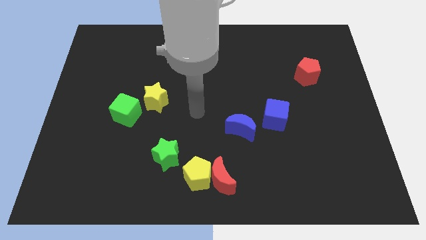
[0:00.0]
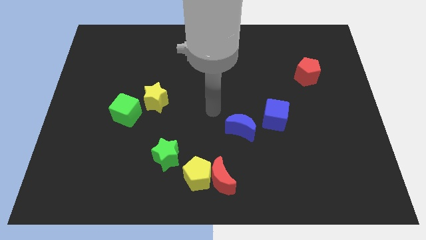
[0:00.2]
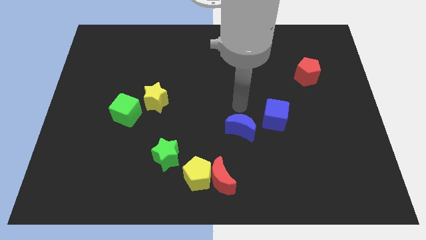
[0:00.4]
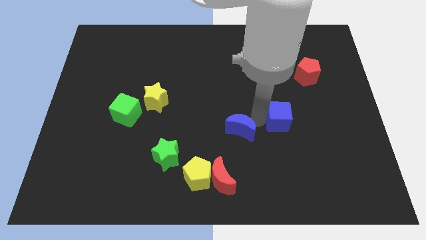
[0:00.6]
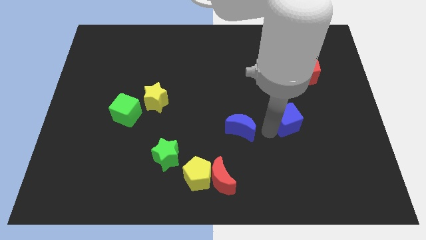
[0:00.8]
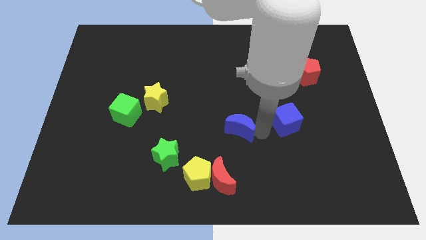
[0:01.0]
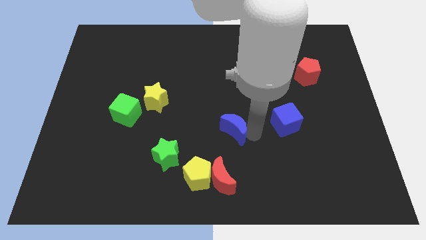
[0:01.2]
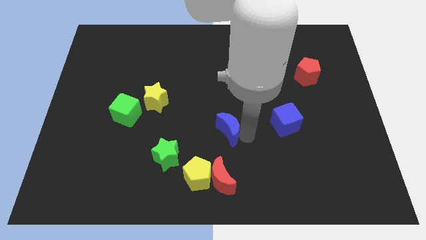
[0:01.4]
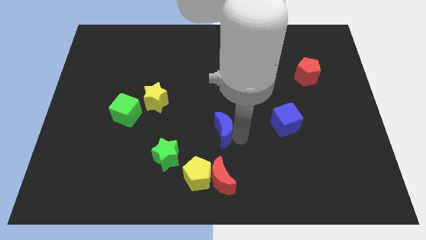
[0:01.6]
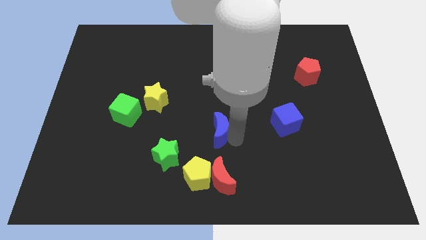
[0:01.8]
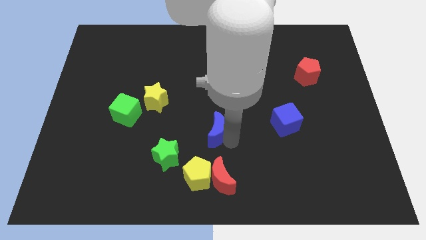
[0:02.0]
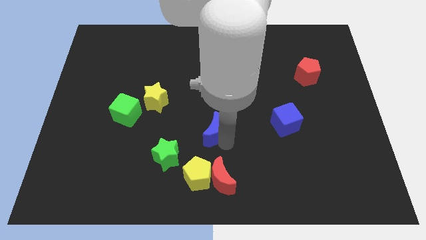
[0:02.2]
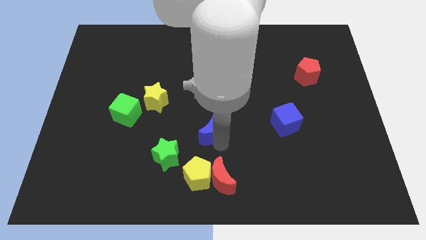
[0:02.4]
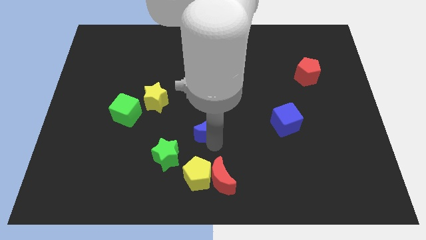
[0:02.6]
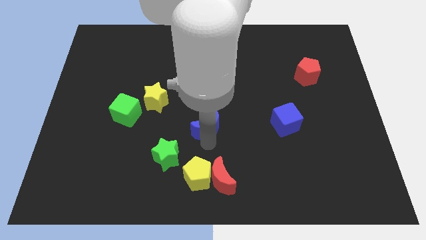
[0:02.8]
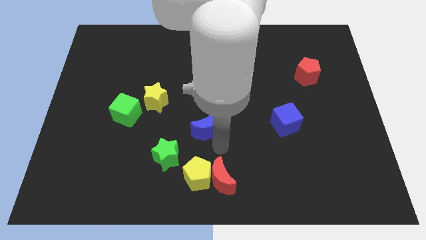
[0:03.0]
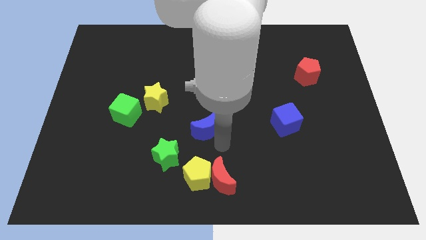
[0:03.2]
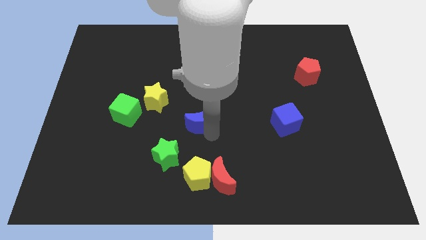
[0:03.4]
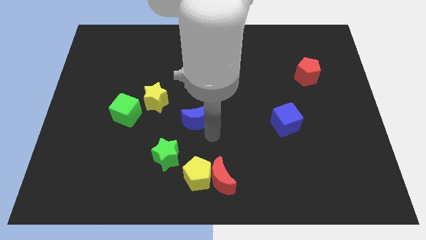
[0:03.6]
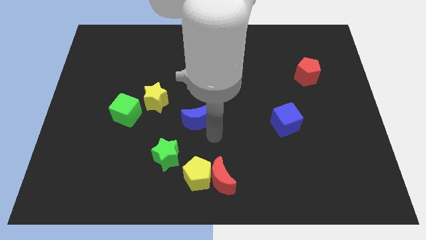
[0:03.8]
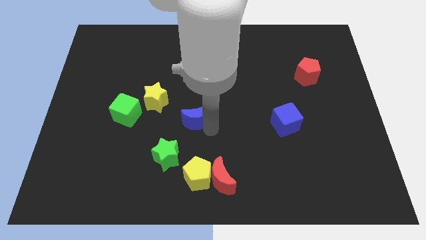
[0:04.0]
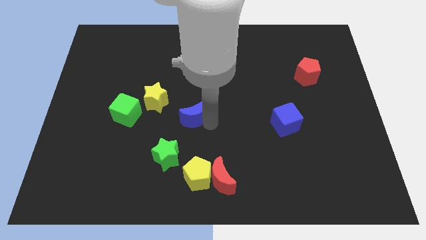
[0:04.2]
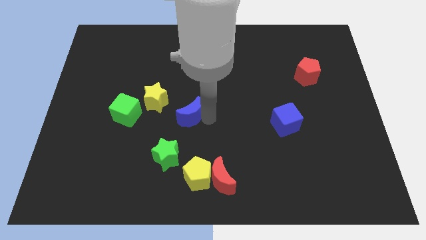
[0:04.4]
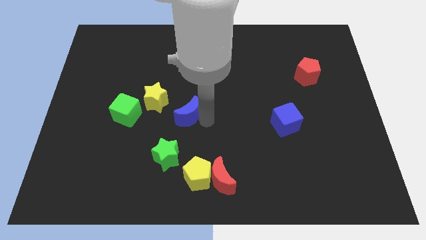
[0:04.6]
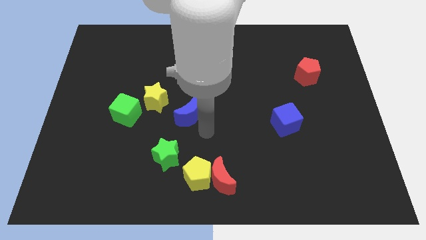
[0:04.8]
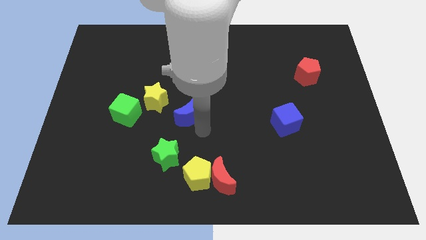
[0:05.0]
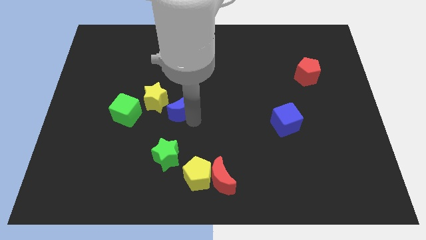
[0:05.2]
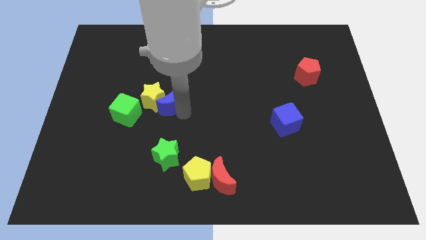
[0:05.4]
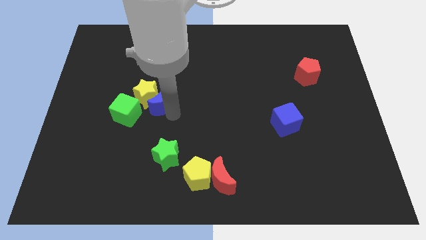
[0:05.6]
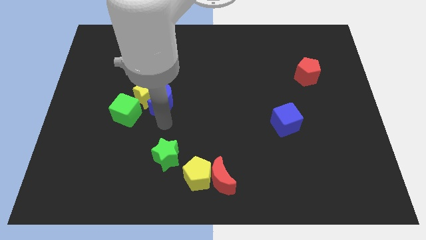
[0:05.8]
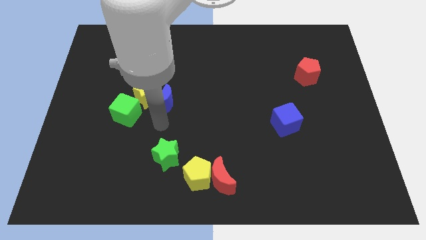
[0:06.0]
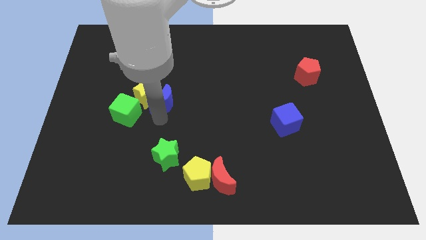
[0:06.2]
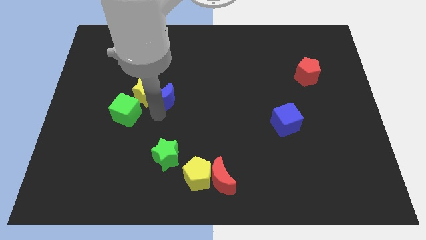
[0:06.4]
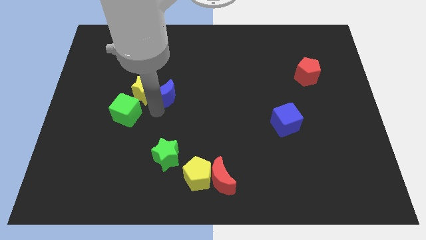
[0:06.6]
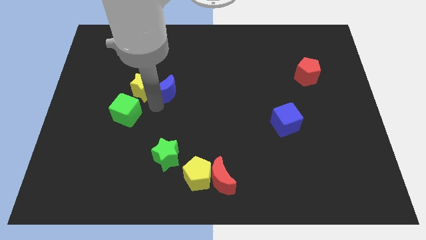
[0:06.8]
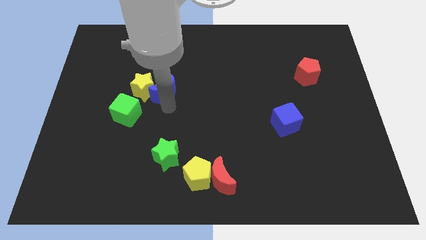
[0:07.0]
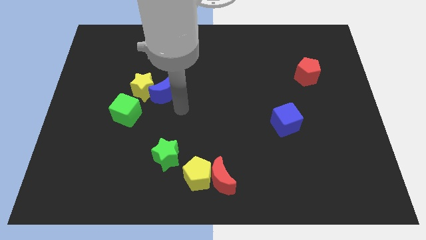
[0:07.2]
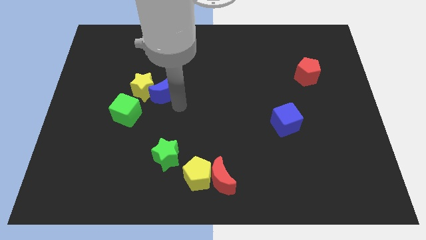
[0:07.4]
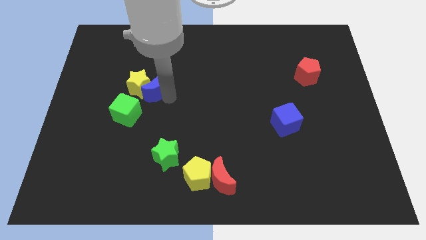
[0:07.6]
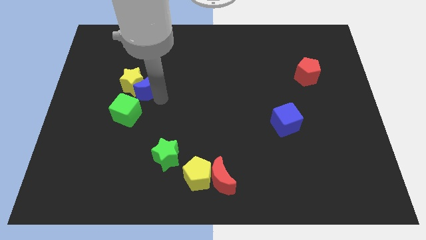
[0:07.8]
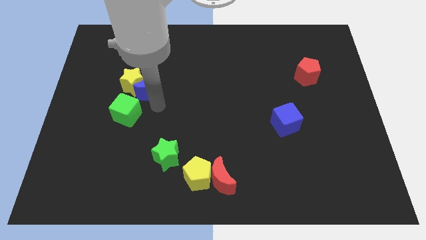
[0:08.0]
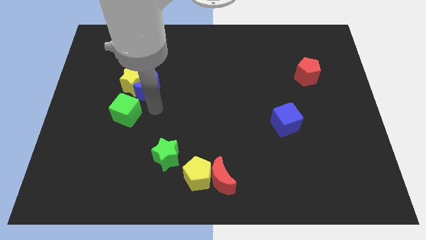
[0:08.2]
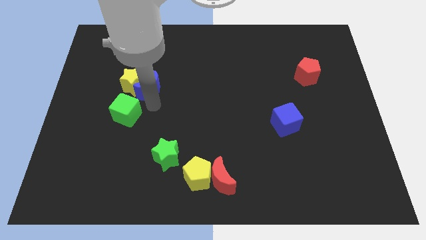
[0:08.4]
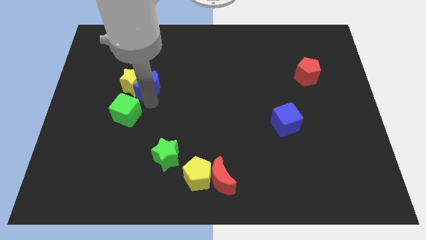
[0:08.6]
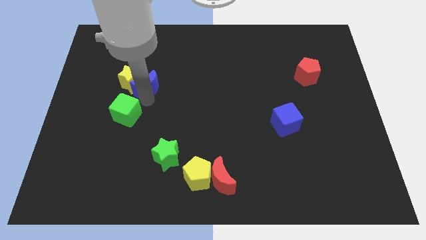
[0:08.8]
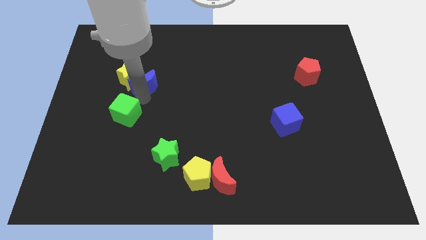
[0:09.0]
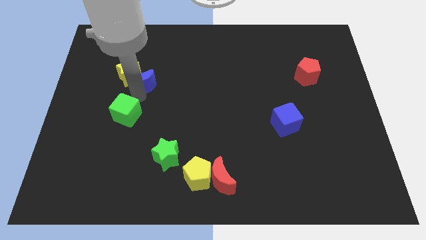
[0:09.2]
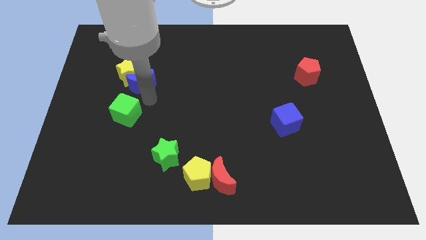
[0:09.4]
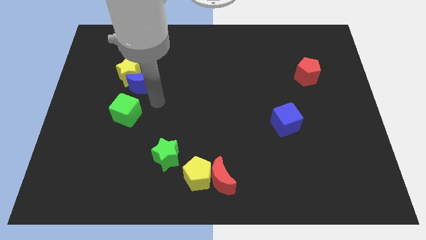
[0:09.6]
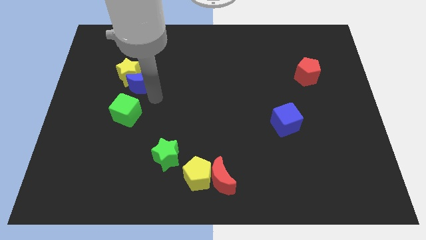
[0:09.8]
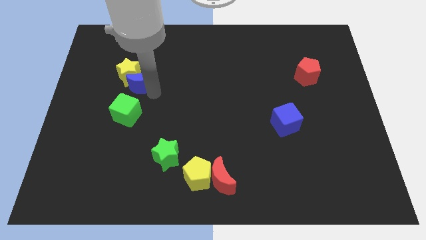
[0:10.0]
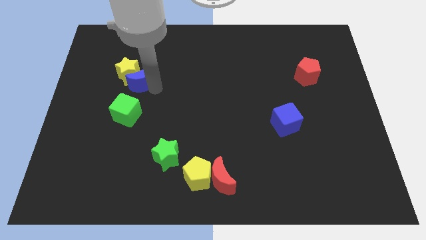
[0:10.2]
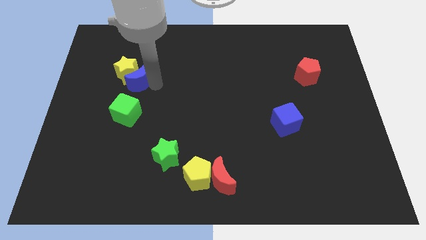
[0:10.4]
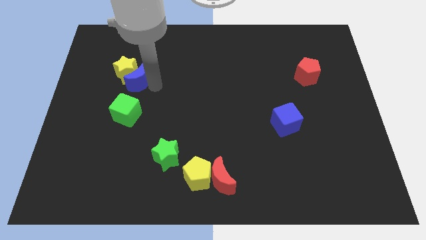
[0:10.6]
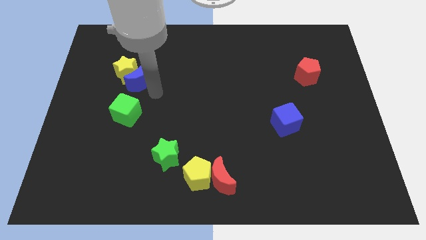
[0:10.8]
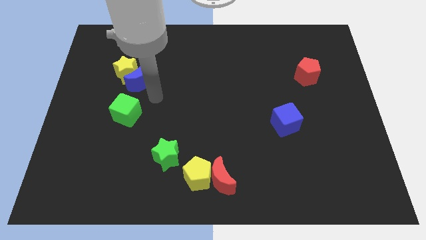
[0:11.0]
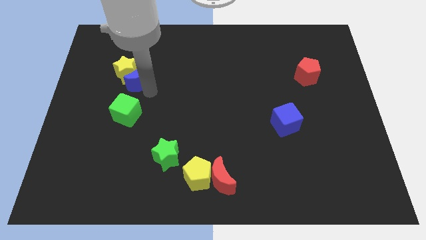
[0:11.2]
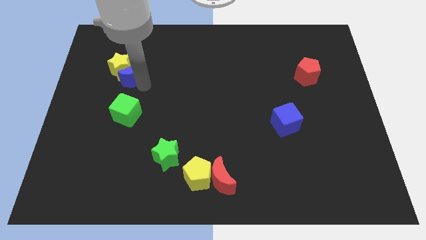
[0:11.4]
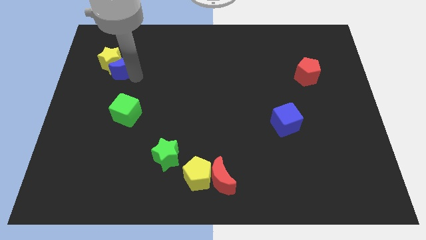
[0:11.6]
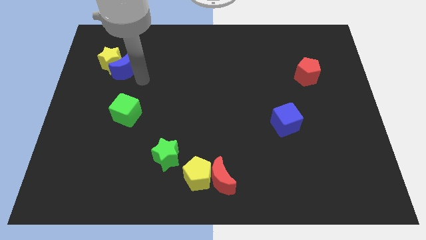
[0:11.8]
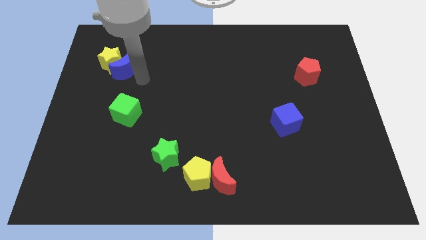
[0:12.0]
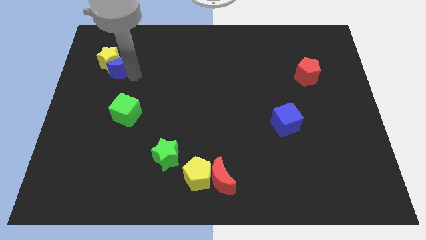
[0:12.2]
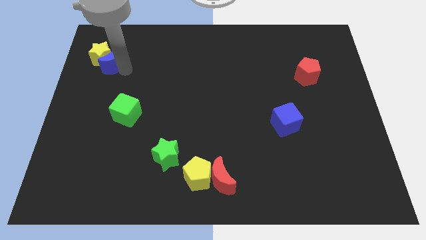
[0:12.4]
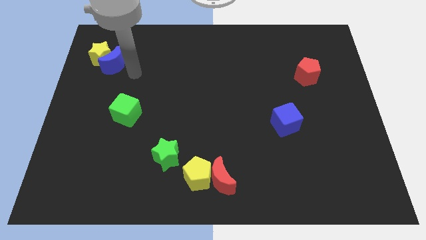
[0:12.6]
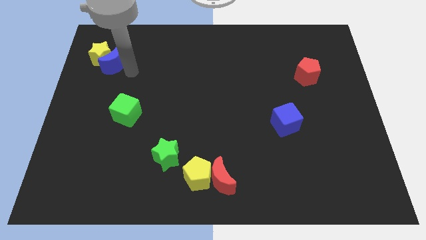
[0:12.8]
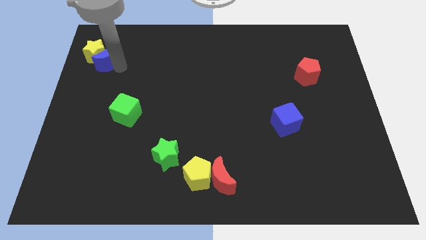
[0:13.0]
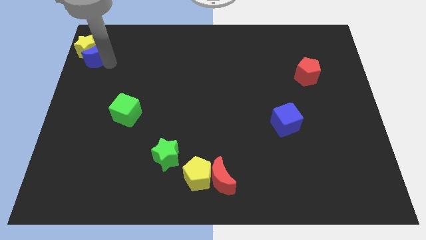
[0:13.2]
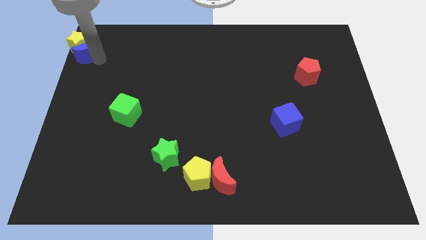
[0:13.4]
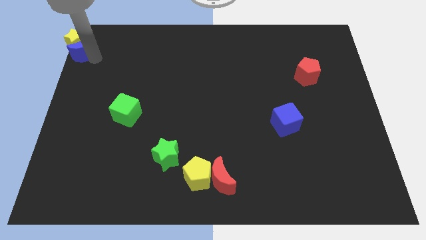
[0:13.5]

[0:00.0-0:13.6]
move the blue moon to the top left

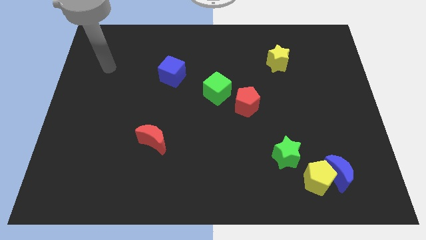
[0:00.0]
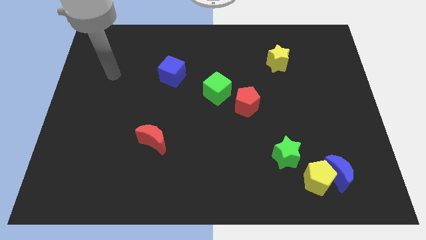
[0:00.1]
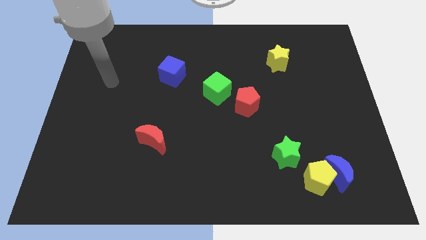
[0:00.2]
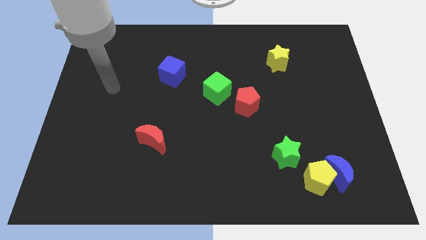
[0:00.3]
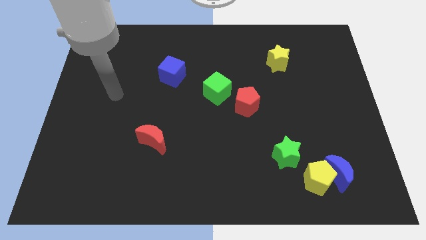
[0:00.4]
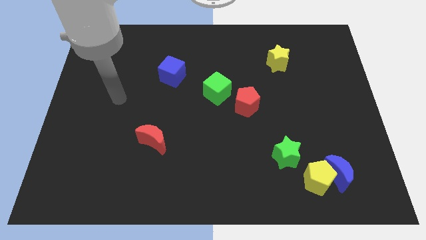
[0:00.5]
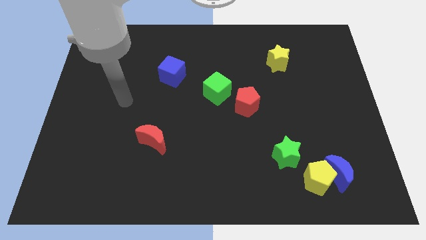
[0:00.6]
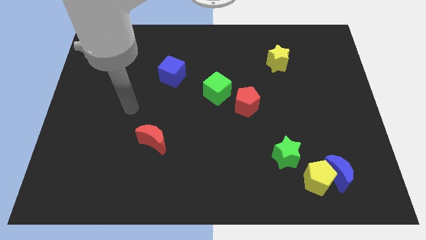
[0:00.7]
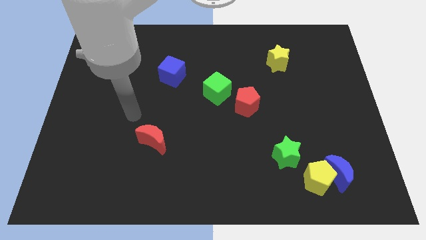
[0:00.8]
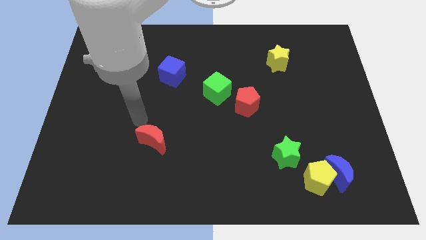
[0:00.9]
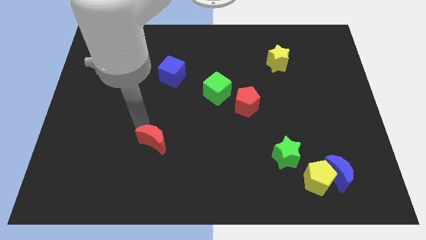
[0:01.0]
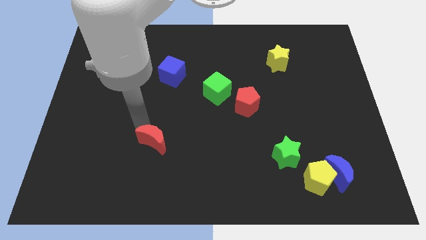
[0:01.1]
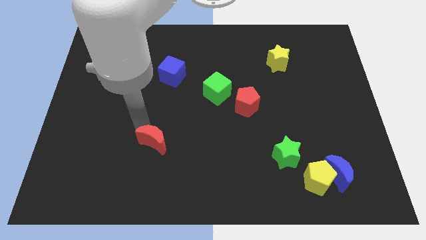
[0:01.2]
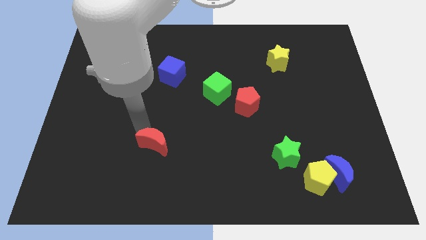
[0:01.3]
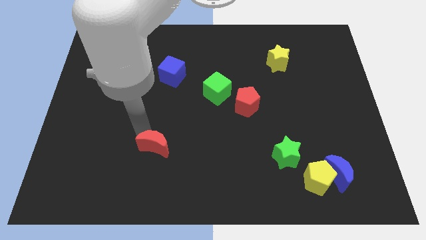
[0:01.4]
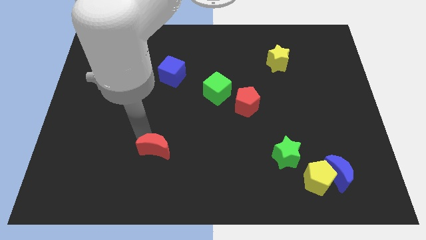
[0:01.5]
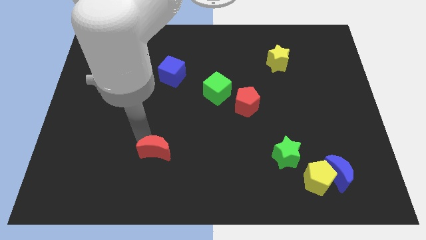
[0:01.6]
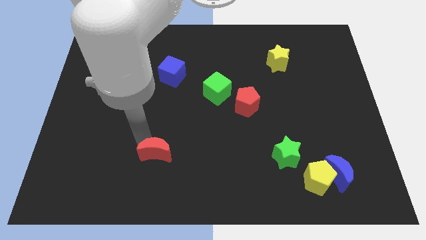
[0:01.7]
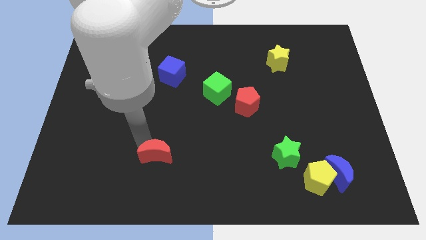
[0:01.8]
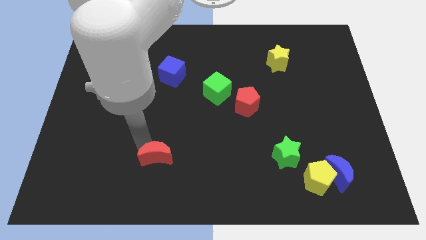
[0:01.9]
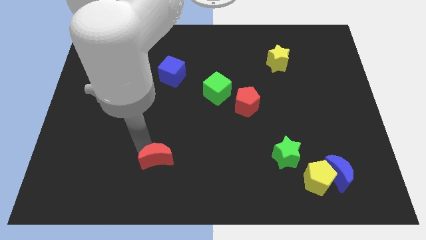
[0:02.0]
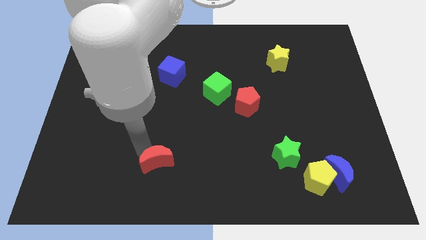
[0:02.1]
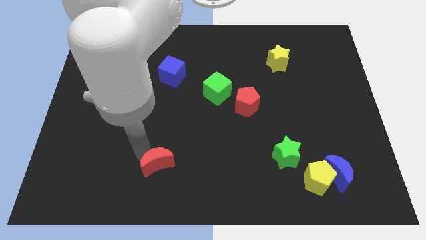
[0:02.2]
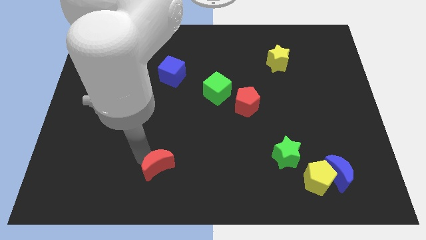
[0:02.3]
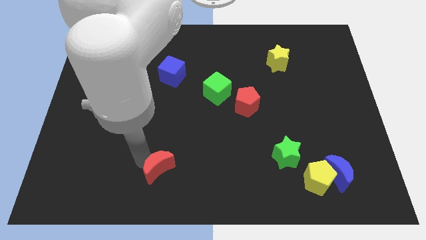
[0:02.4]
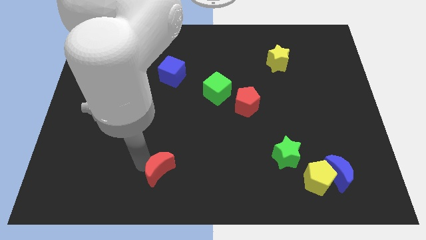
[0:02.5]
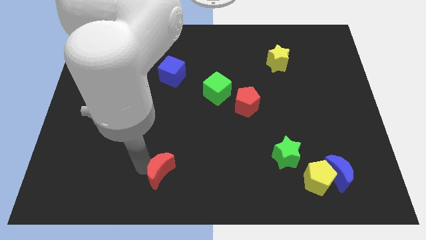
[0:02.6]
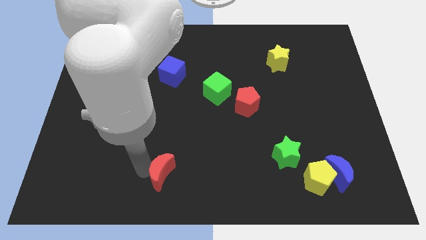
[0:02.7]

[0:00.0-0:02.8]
move the red moon to the bottom
